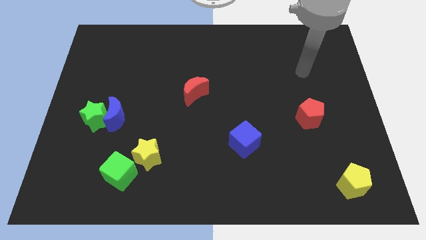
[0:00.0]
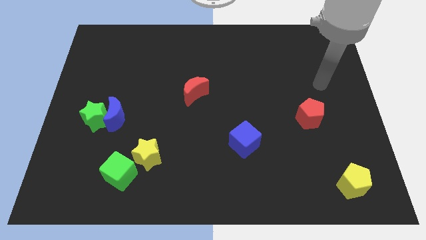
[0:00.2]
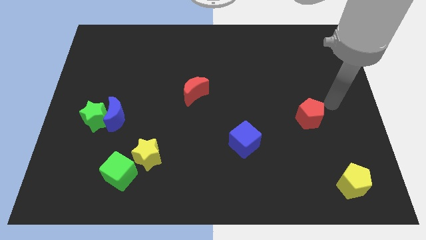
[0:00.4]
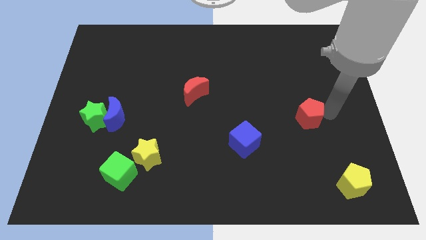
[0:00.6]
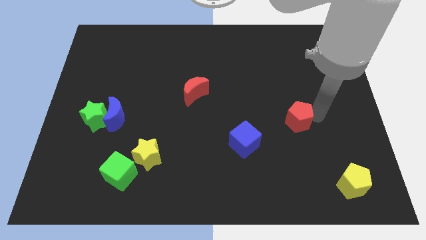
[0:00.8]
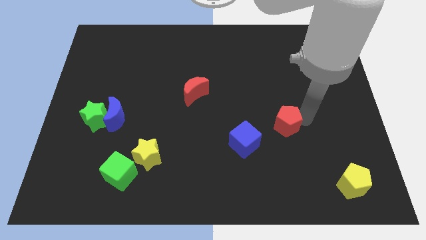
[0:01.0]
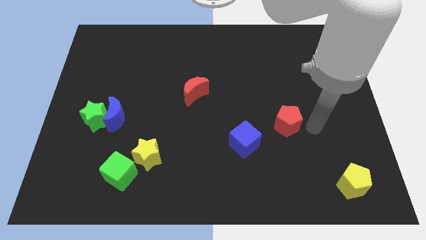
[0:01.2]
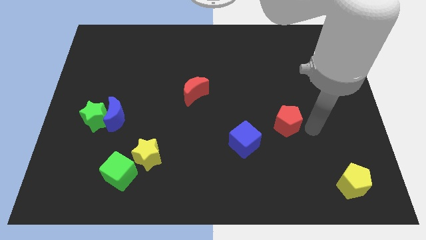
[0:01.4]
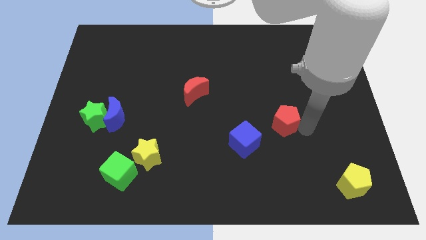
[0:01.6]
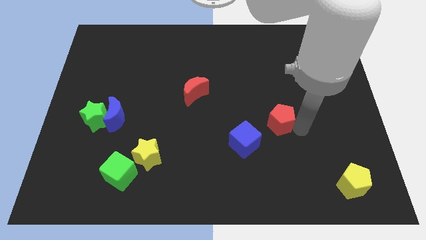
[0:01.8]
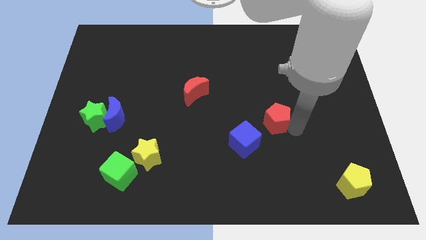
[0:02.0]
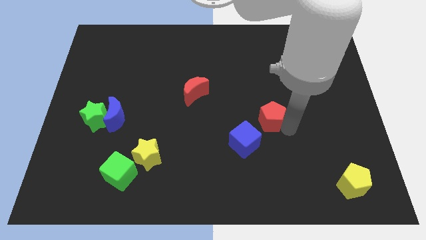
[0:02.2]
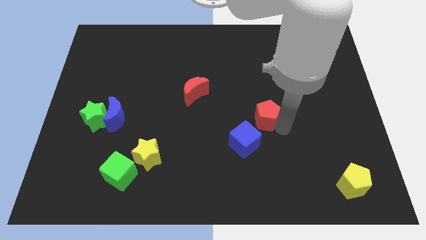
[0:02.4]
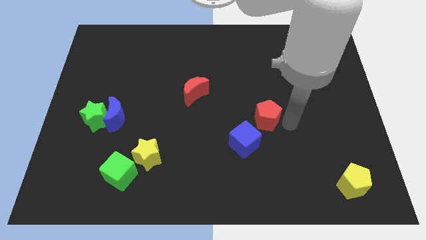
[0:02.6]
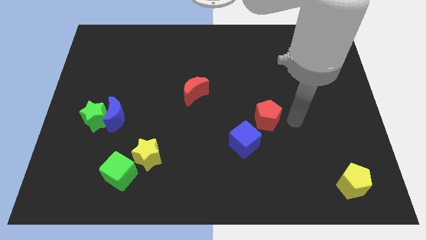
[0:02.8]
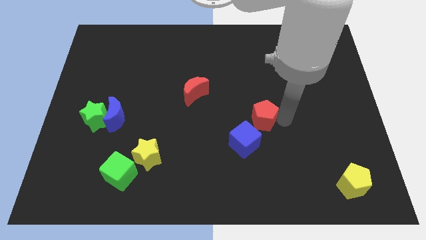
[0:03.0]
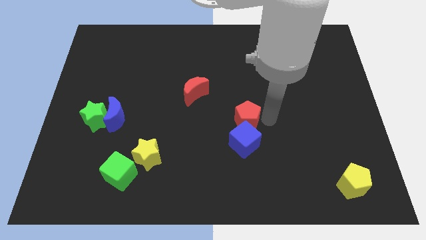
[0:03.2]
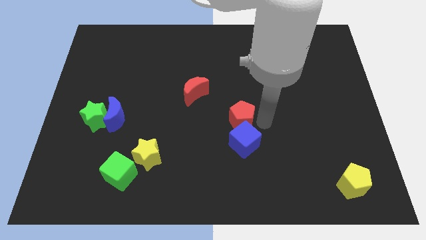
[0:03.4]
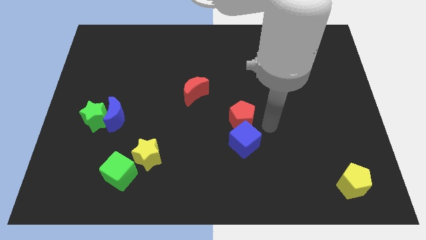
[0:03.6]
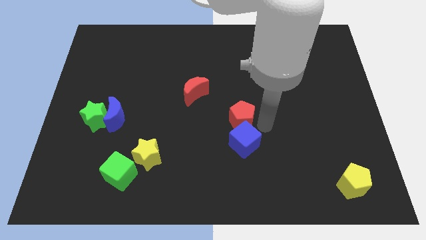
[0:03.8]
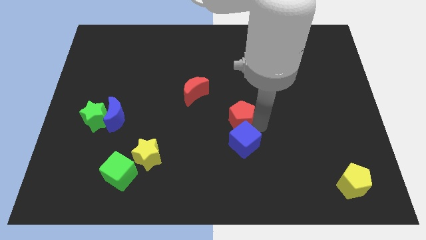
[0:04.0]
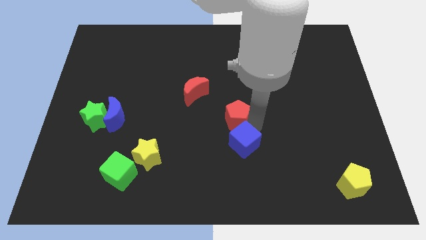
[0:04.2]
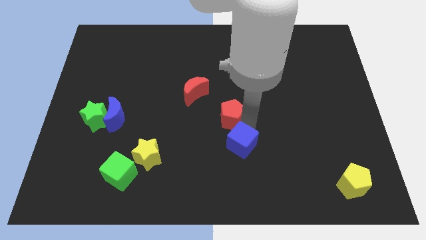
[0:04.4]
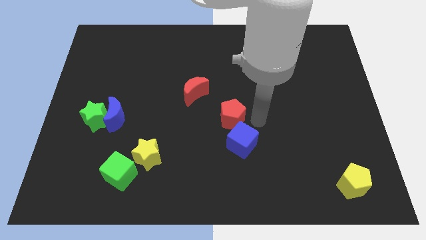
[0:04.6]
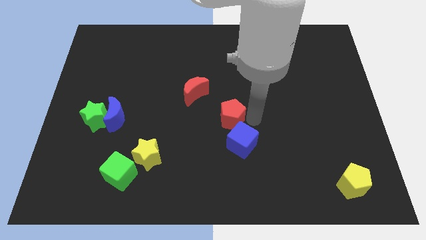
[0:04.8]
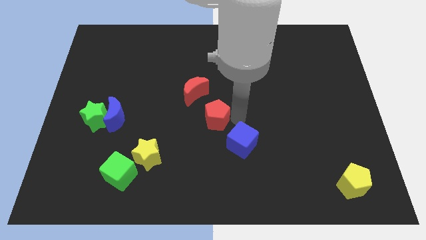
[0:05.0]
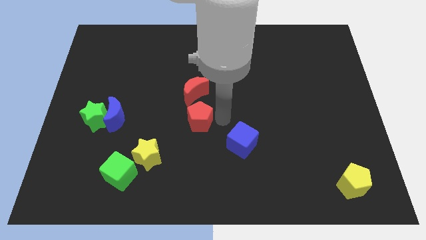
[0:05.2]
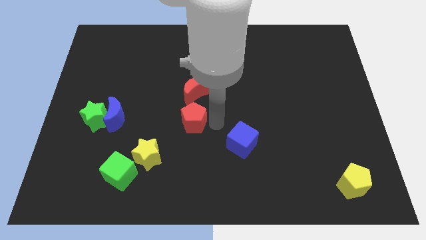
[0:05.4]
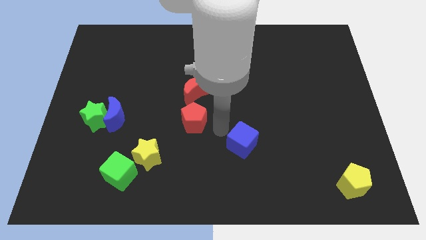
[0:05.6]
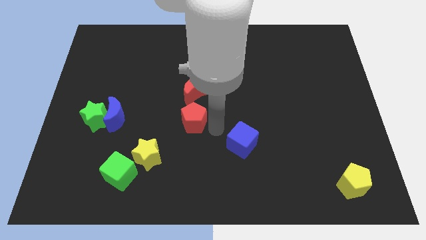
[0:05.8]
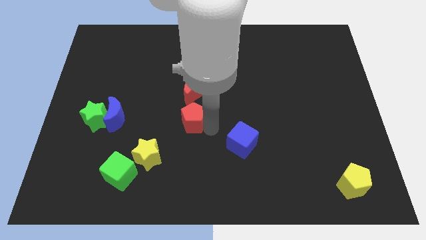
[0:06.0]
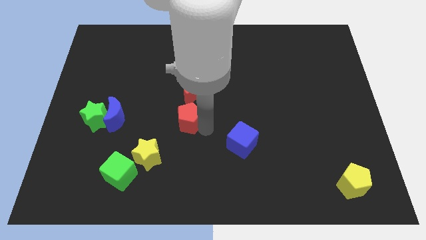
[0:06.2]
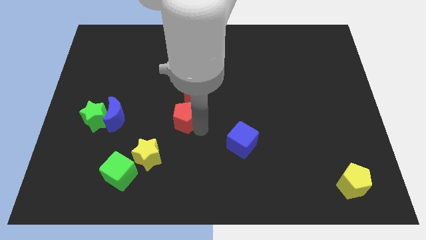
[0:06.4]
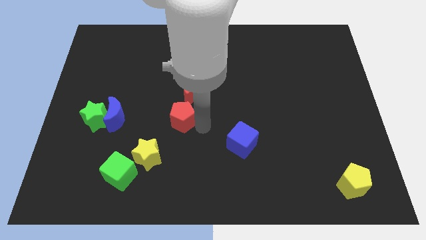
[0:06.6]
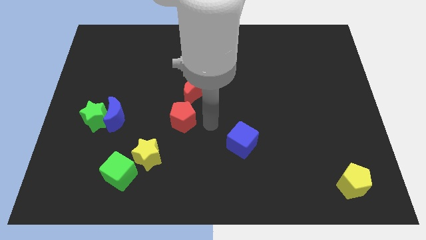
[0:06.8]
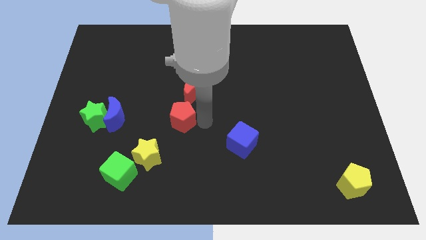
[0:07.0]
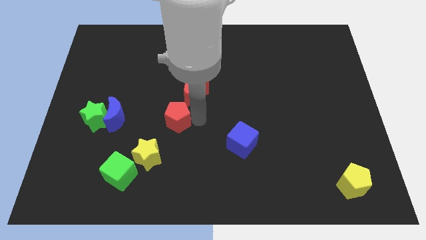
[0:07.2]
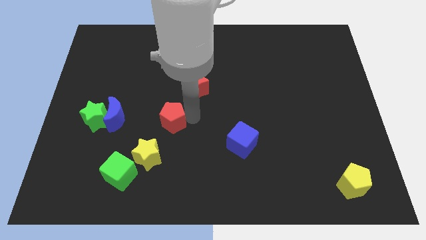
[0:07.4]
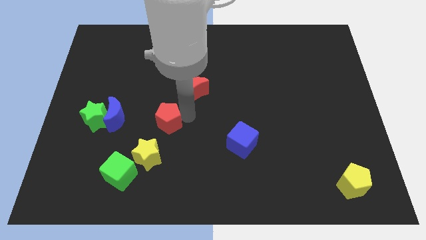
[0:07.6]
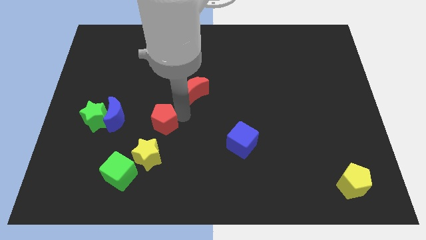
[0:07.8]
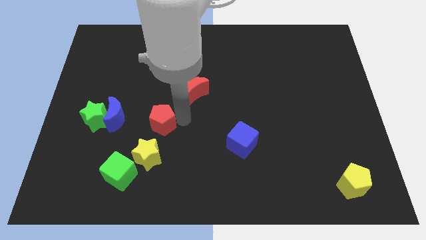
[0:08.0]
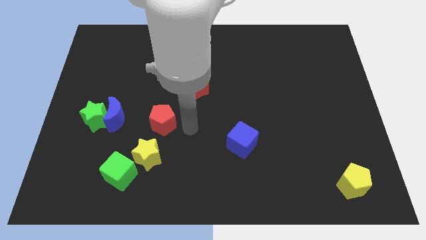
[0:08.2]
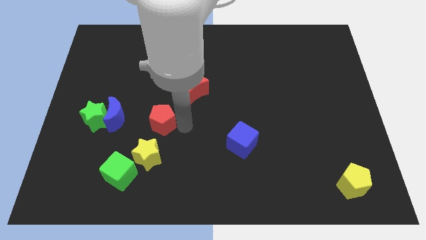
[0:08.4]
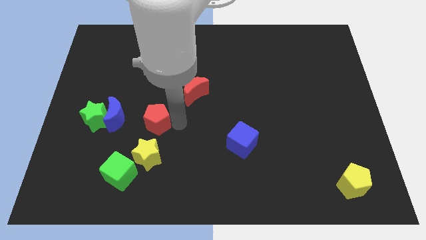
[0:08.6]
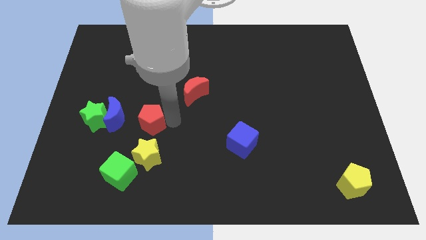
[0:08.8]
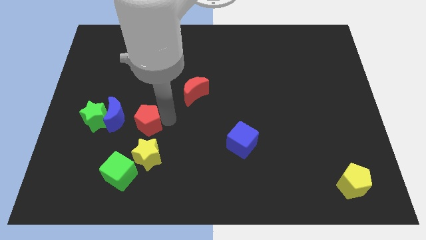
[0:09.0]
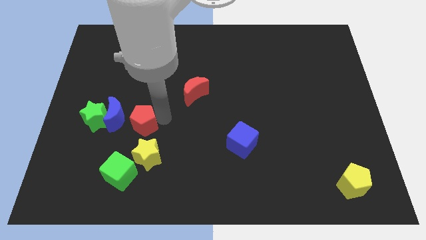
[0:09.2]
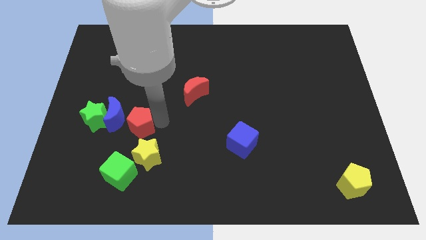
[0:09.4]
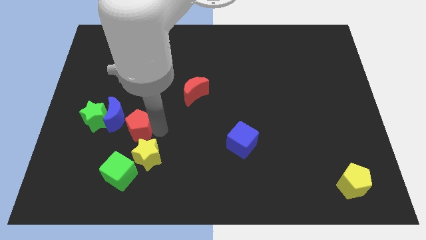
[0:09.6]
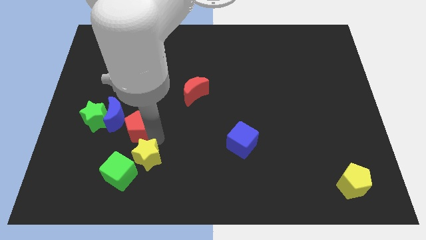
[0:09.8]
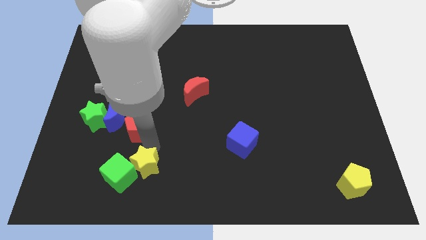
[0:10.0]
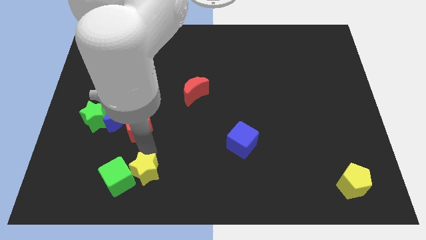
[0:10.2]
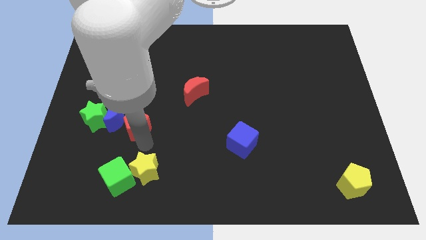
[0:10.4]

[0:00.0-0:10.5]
slide the red pentagon next to the blue moon

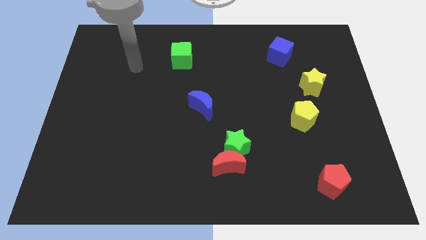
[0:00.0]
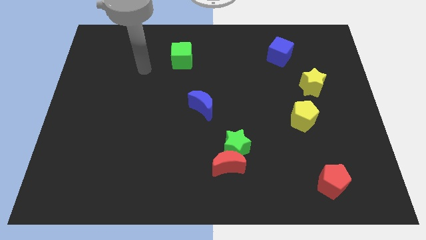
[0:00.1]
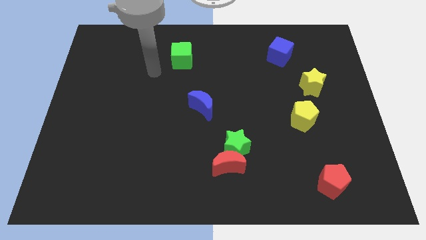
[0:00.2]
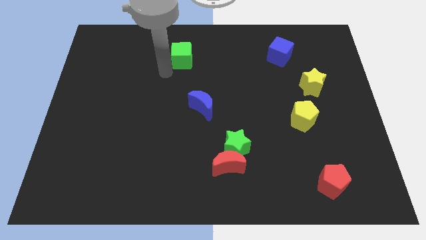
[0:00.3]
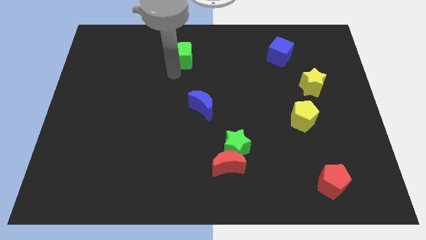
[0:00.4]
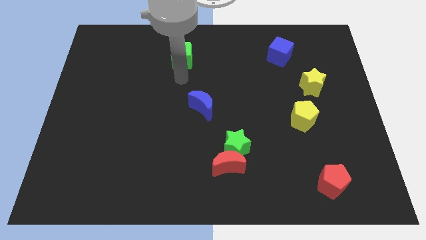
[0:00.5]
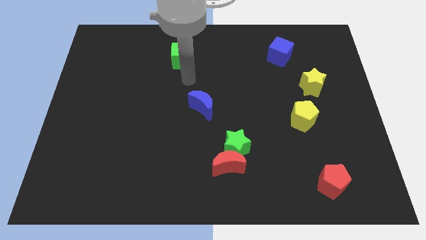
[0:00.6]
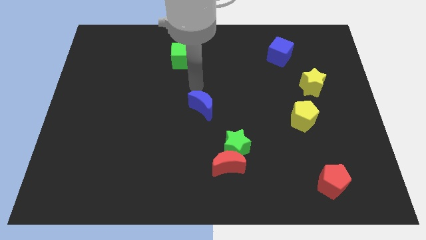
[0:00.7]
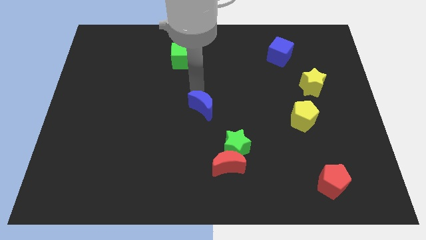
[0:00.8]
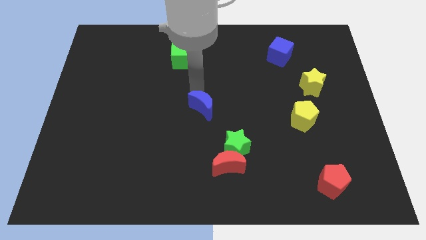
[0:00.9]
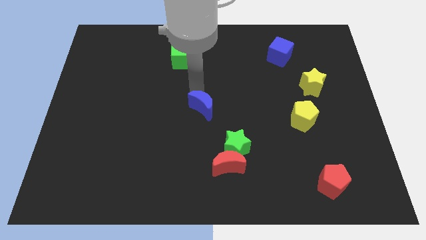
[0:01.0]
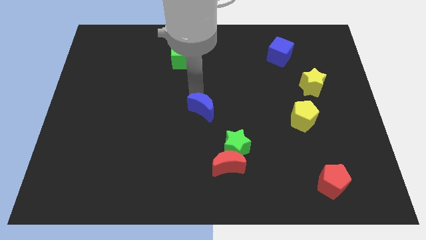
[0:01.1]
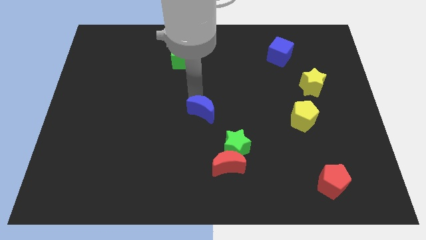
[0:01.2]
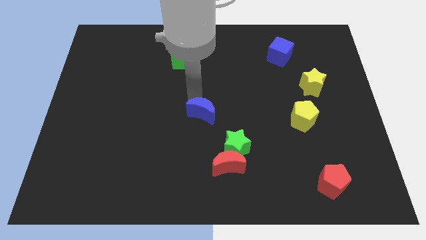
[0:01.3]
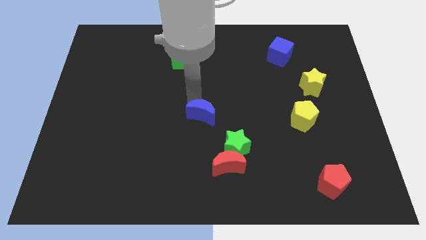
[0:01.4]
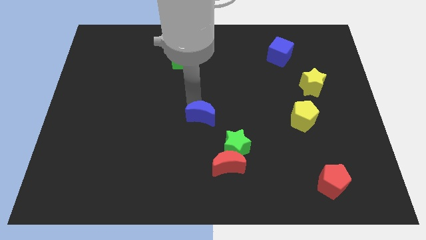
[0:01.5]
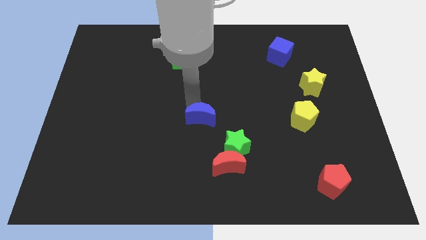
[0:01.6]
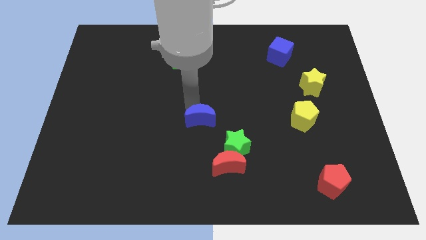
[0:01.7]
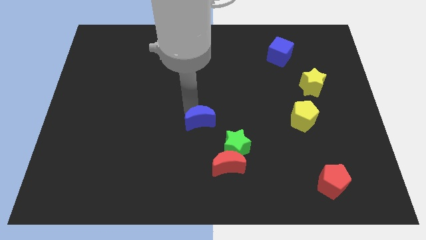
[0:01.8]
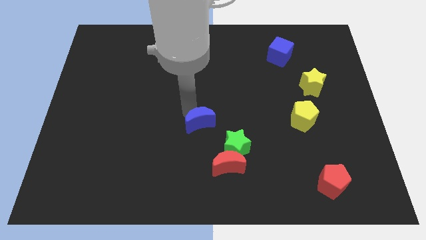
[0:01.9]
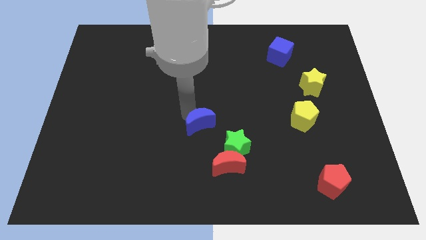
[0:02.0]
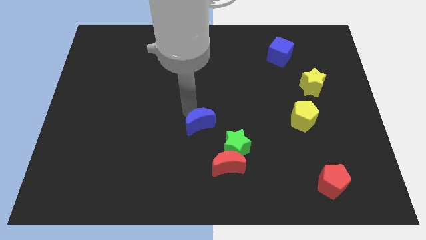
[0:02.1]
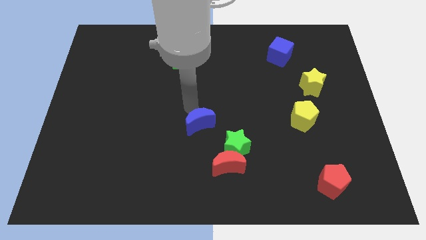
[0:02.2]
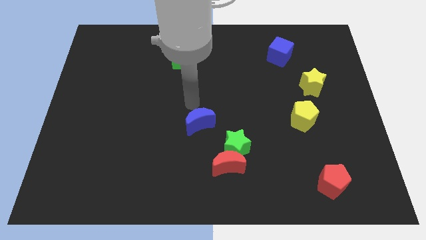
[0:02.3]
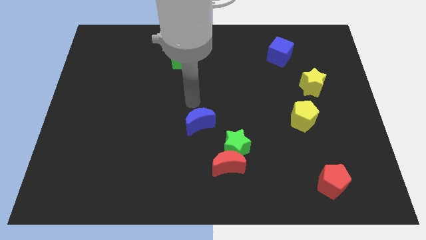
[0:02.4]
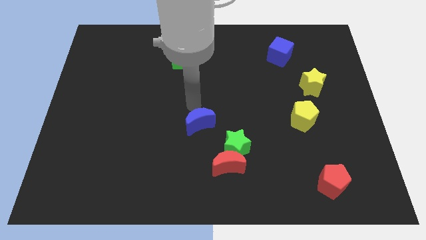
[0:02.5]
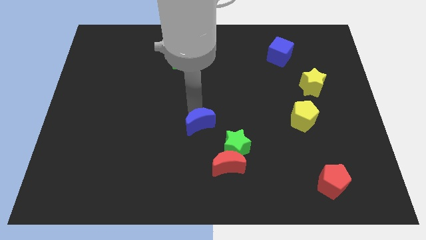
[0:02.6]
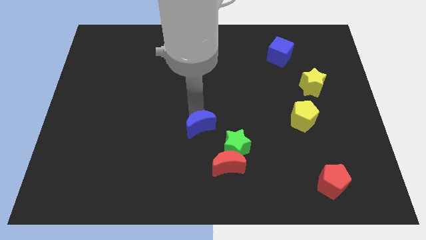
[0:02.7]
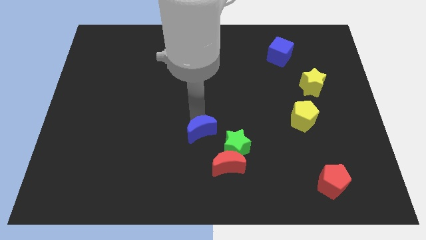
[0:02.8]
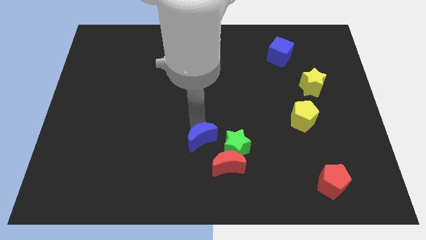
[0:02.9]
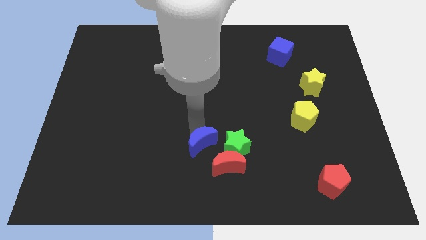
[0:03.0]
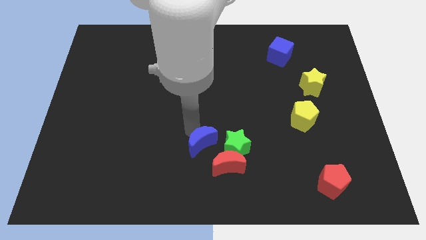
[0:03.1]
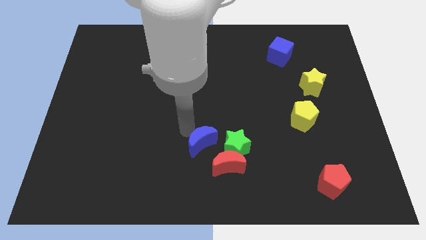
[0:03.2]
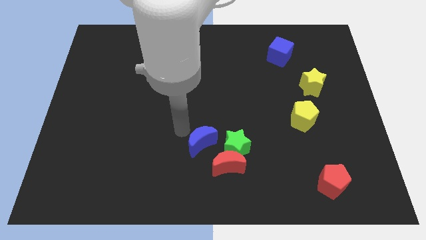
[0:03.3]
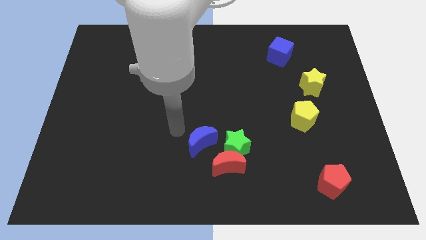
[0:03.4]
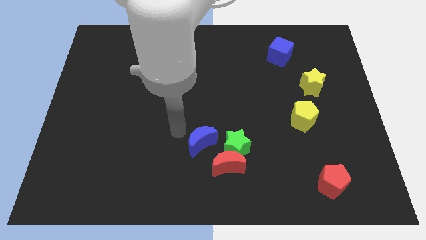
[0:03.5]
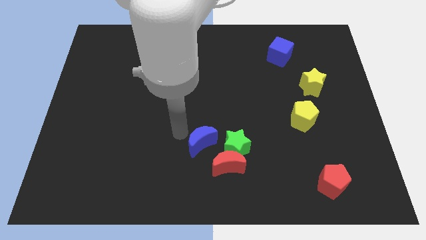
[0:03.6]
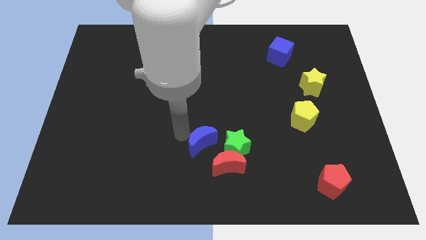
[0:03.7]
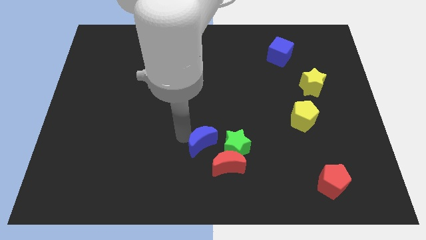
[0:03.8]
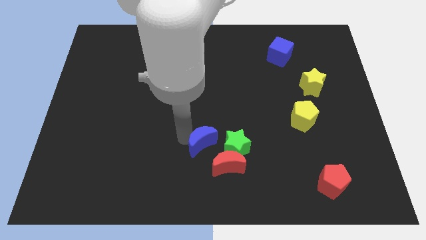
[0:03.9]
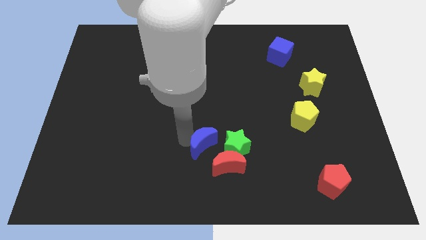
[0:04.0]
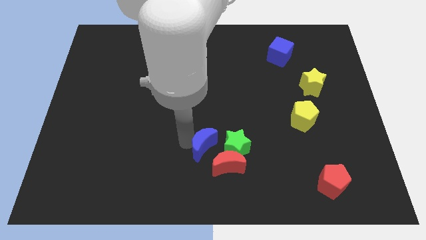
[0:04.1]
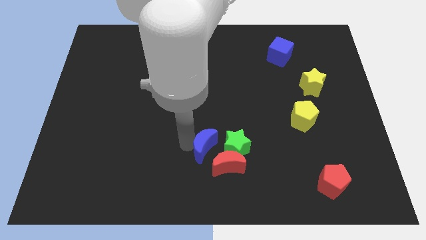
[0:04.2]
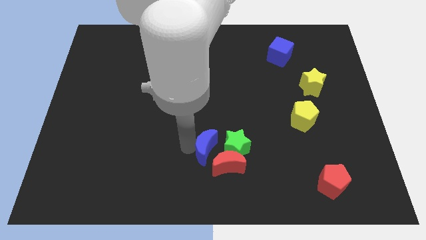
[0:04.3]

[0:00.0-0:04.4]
put the blue moon close to the red moon
